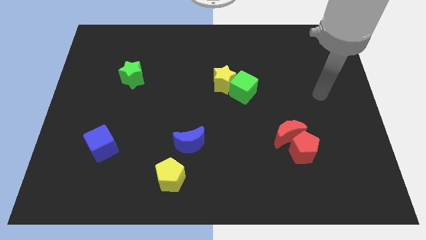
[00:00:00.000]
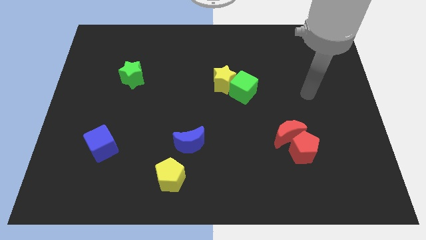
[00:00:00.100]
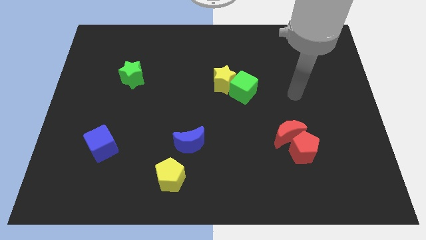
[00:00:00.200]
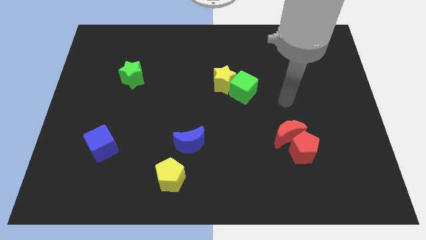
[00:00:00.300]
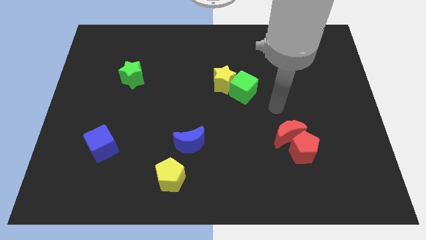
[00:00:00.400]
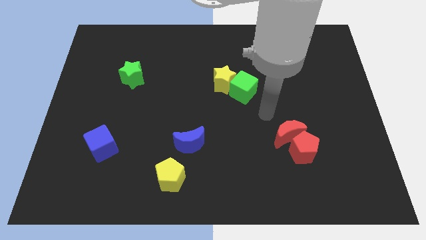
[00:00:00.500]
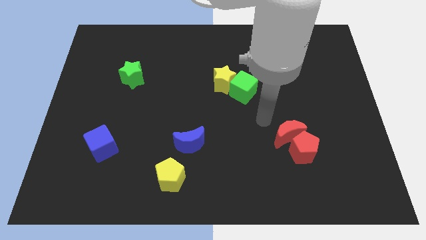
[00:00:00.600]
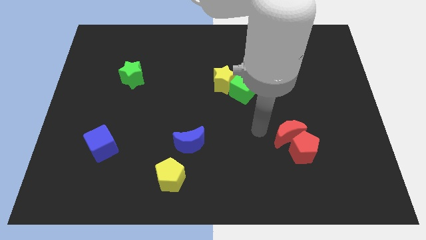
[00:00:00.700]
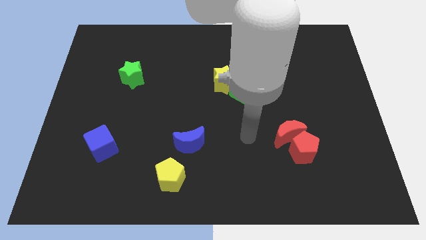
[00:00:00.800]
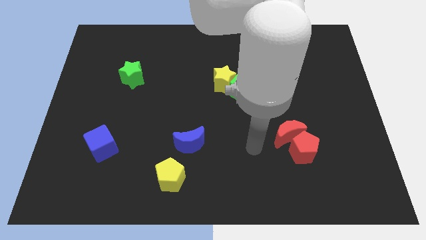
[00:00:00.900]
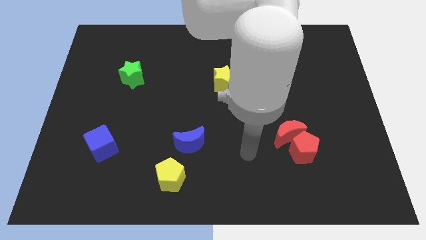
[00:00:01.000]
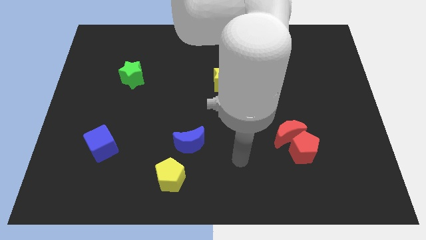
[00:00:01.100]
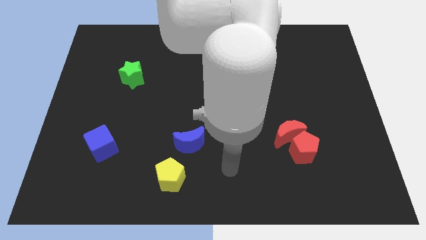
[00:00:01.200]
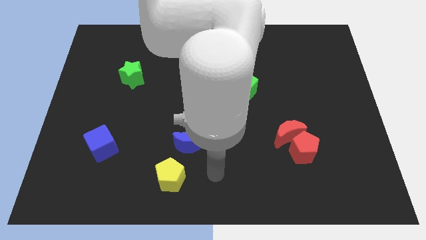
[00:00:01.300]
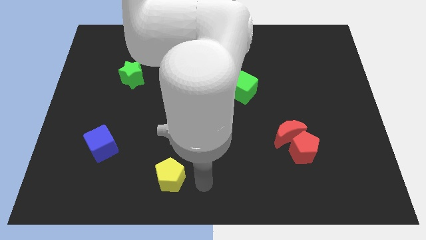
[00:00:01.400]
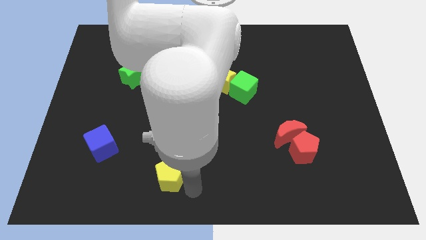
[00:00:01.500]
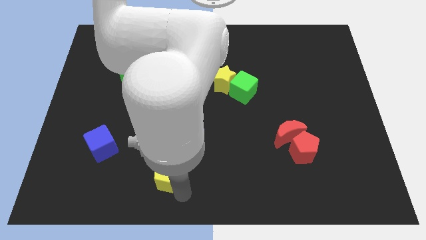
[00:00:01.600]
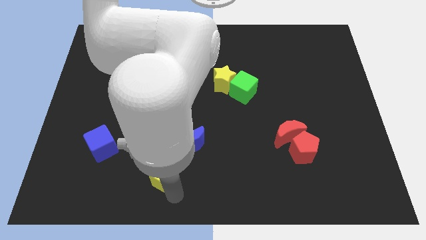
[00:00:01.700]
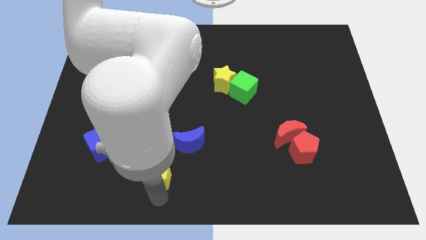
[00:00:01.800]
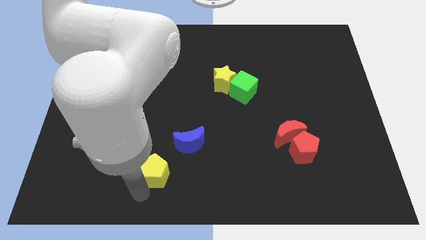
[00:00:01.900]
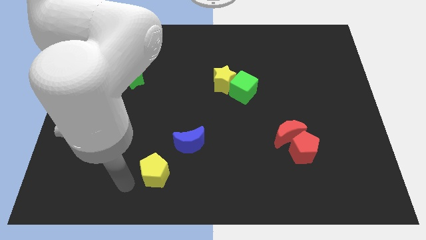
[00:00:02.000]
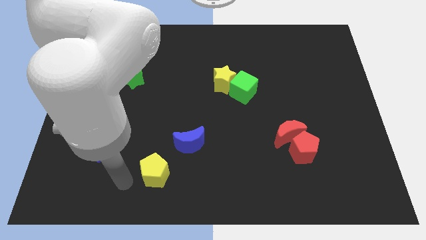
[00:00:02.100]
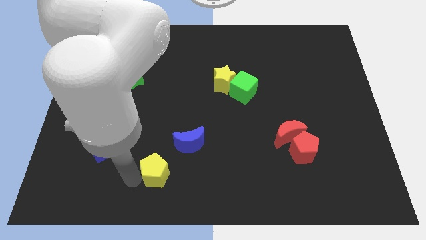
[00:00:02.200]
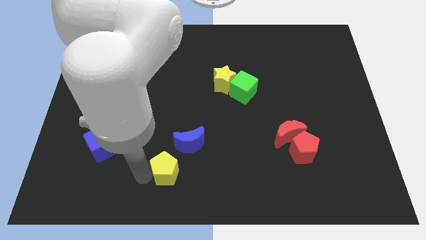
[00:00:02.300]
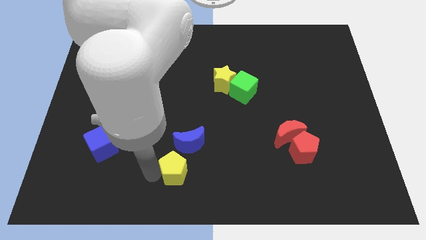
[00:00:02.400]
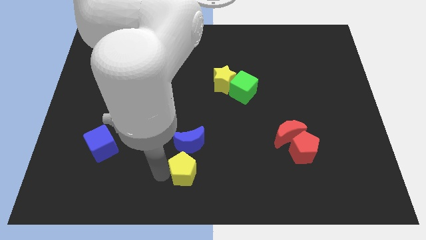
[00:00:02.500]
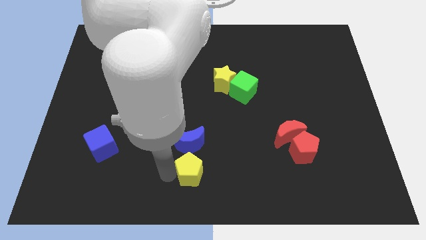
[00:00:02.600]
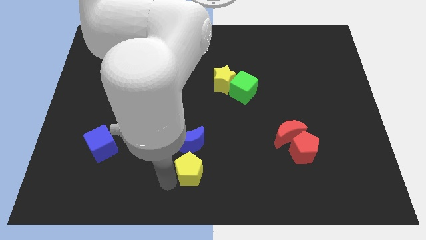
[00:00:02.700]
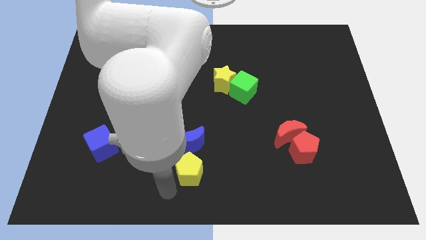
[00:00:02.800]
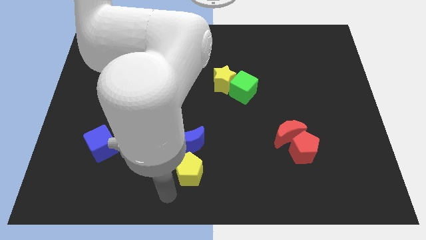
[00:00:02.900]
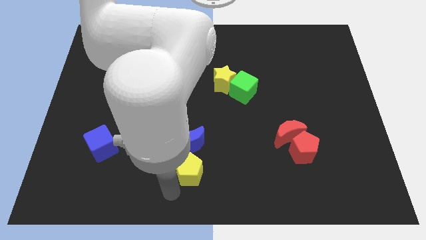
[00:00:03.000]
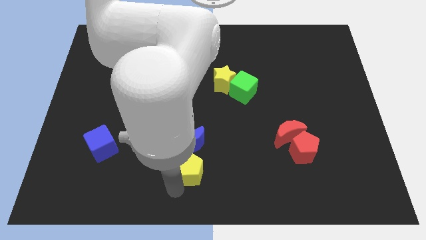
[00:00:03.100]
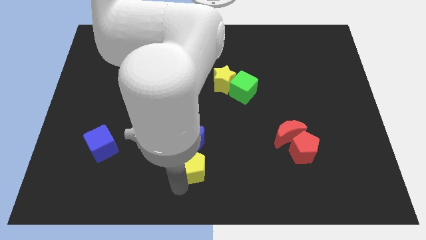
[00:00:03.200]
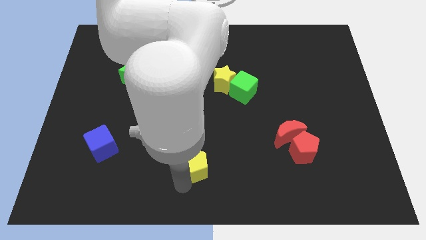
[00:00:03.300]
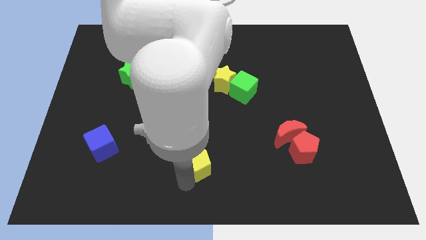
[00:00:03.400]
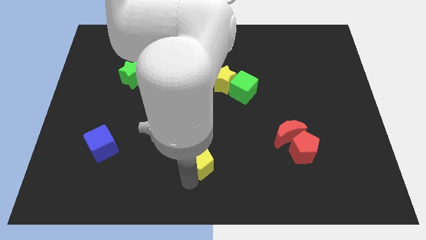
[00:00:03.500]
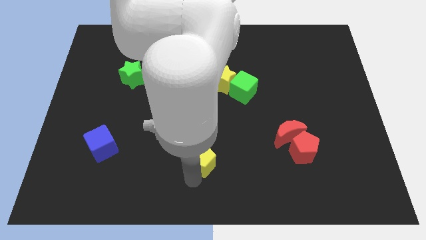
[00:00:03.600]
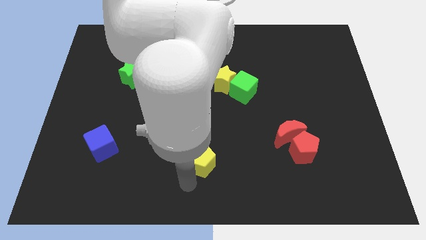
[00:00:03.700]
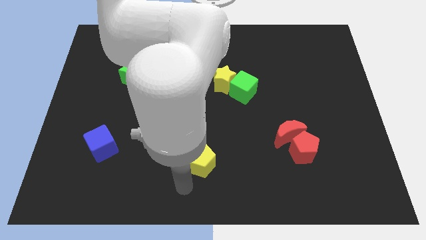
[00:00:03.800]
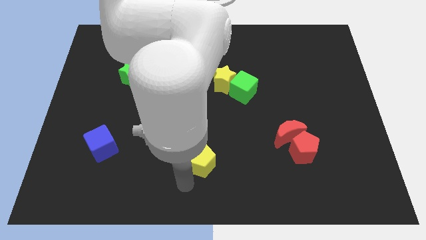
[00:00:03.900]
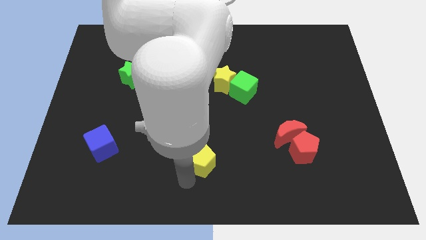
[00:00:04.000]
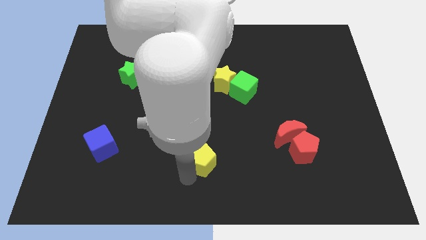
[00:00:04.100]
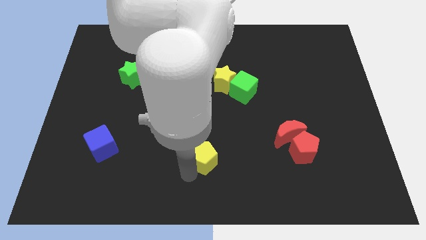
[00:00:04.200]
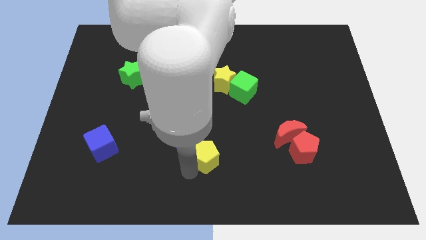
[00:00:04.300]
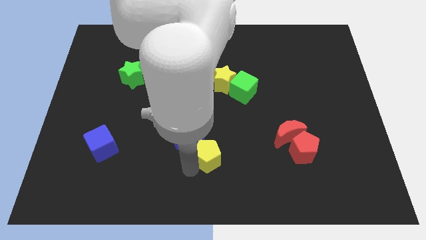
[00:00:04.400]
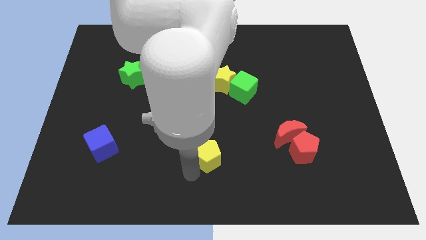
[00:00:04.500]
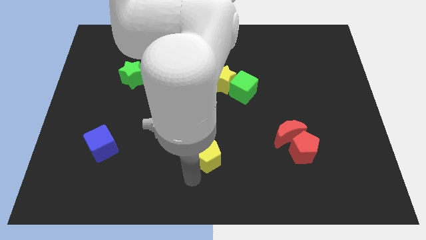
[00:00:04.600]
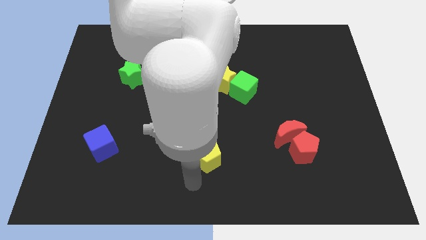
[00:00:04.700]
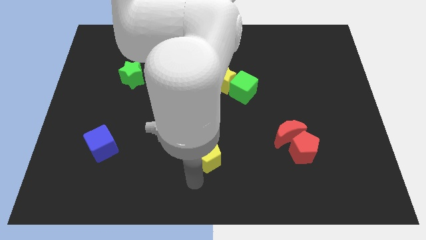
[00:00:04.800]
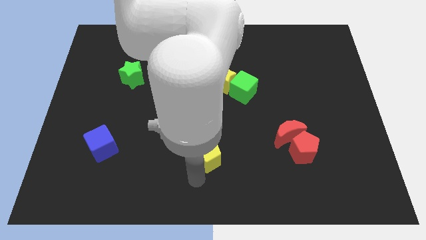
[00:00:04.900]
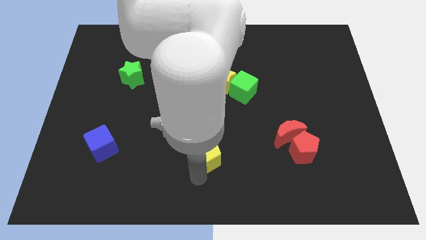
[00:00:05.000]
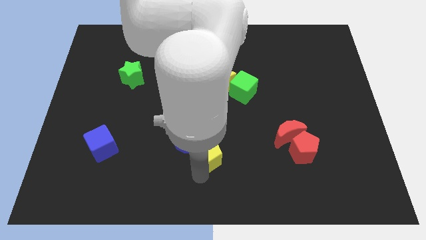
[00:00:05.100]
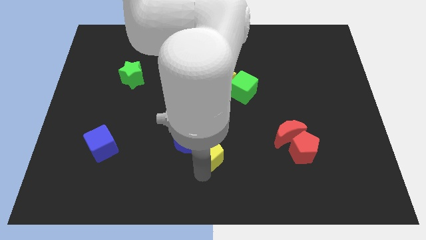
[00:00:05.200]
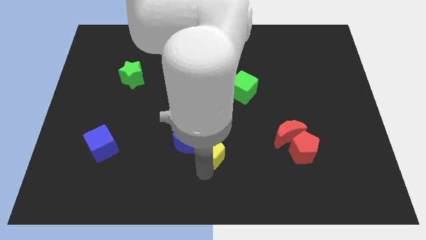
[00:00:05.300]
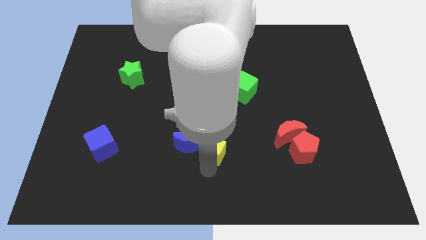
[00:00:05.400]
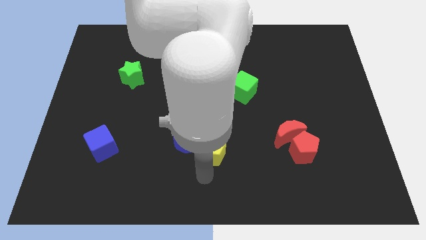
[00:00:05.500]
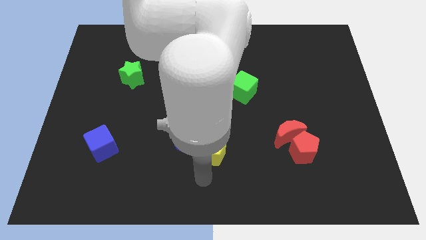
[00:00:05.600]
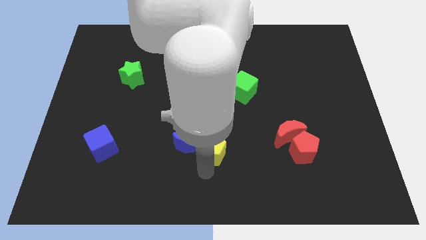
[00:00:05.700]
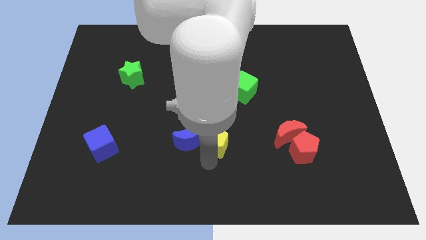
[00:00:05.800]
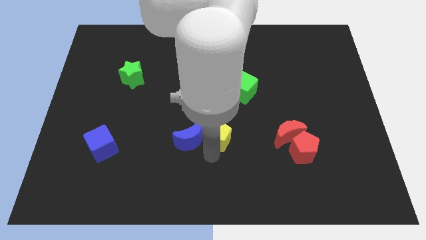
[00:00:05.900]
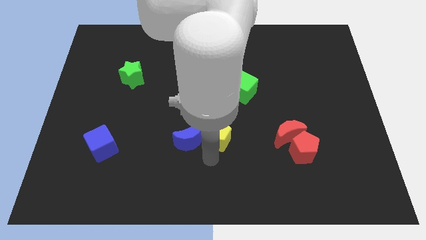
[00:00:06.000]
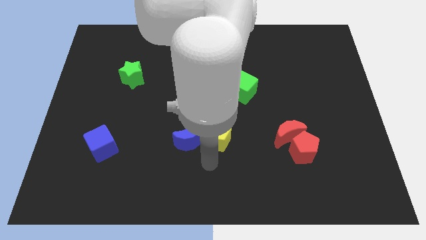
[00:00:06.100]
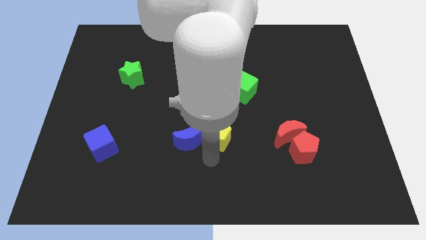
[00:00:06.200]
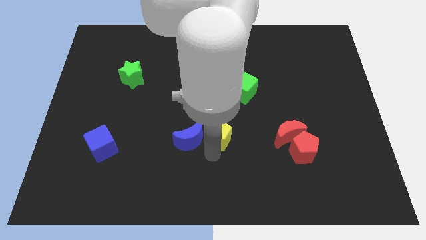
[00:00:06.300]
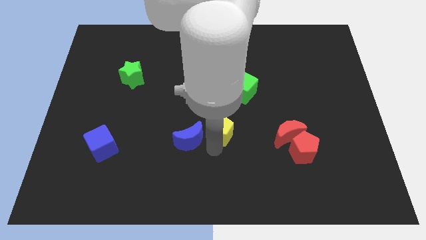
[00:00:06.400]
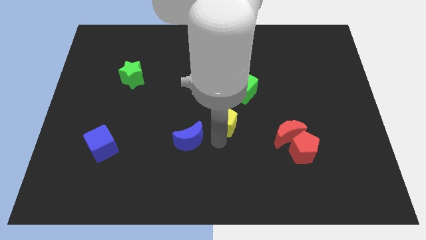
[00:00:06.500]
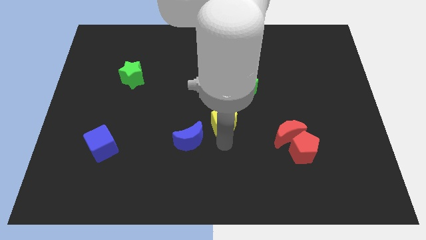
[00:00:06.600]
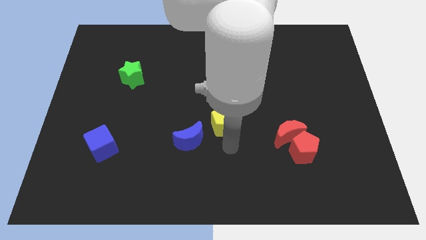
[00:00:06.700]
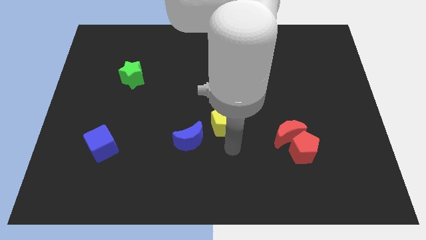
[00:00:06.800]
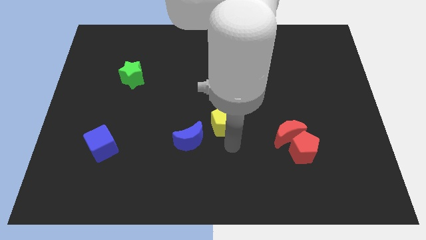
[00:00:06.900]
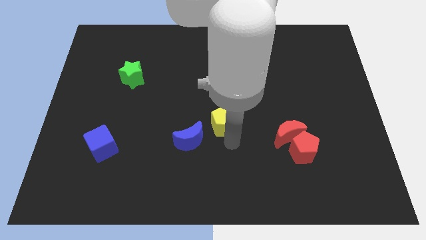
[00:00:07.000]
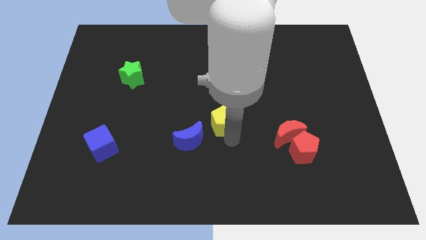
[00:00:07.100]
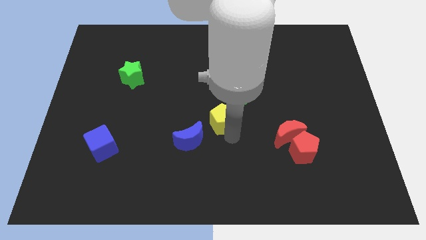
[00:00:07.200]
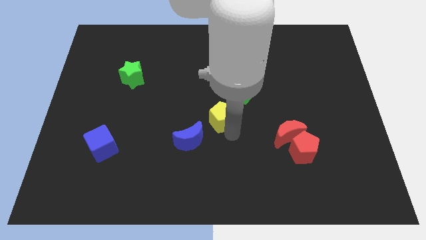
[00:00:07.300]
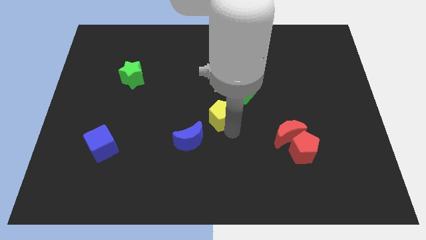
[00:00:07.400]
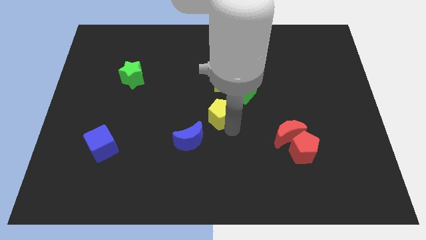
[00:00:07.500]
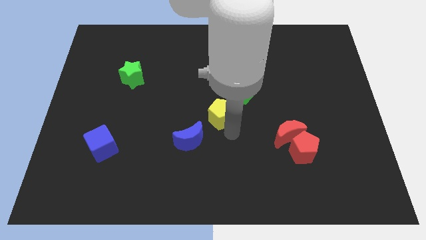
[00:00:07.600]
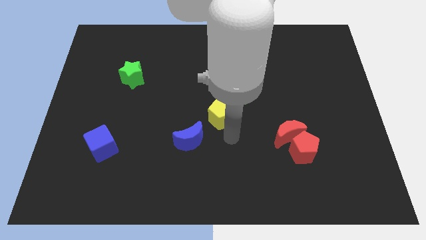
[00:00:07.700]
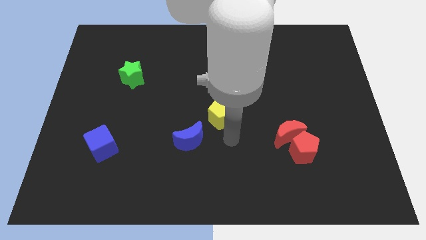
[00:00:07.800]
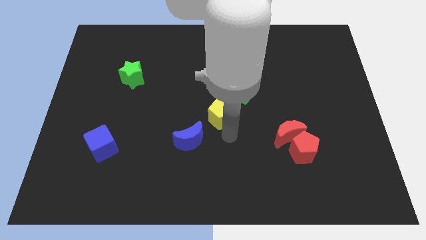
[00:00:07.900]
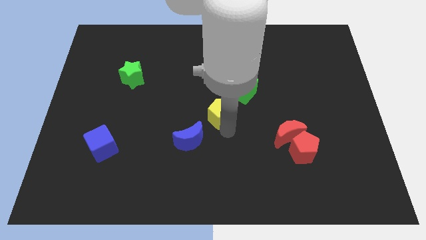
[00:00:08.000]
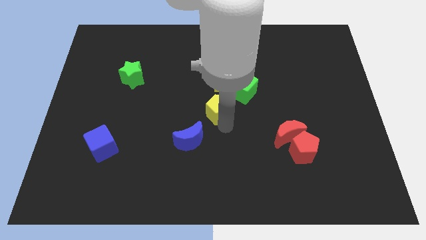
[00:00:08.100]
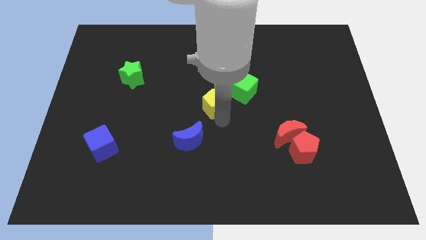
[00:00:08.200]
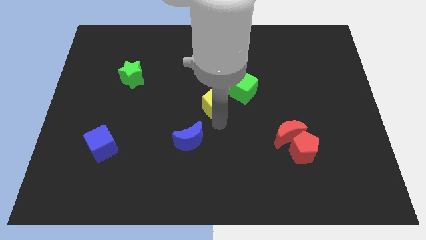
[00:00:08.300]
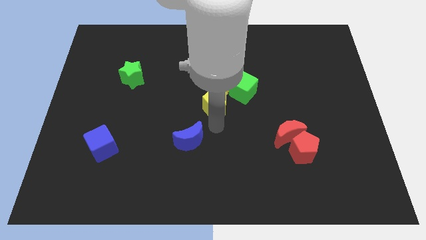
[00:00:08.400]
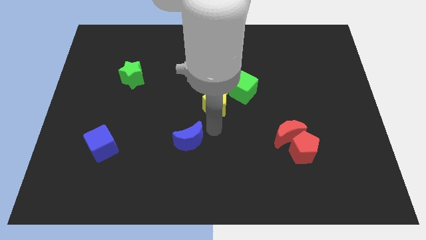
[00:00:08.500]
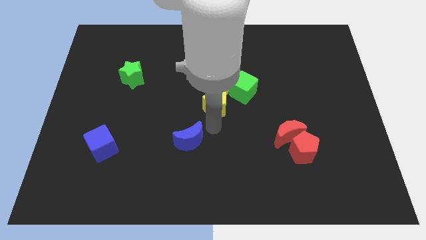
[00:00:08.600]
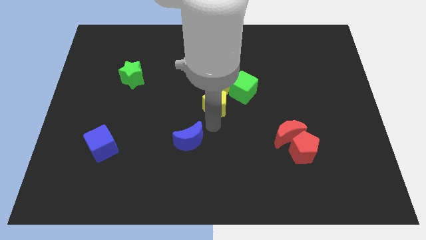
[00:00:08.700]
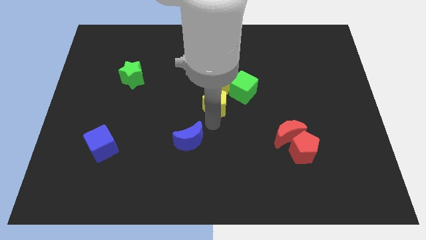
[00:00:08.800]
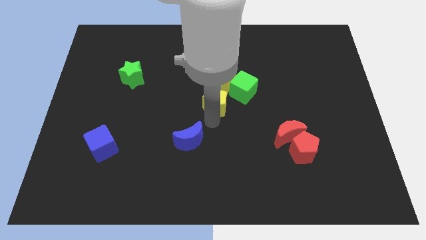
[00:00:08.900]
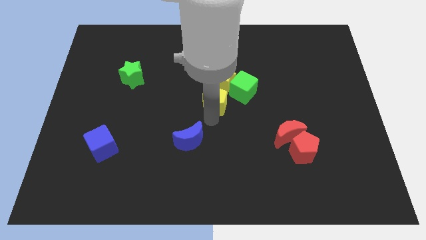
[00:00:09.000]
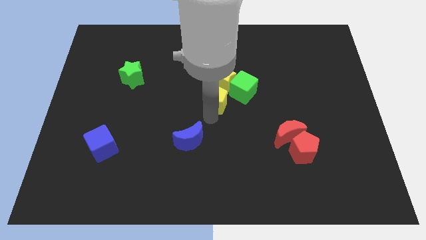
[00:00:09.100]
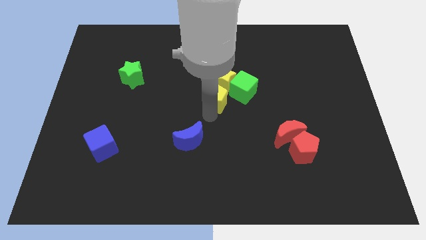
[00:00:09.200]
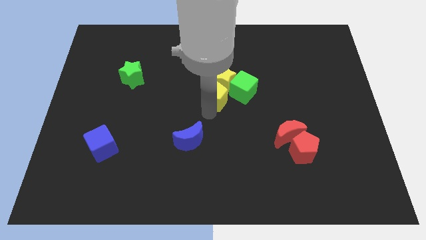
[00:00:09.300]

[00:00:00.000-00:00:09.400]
slide the yellow pentagon to the yellow star
